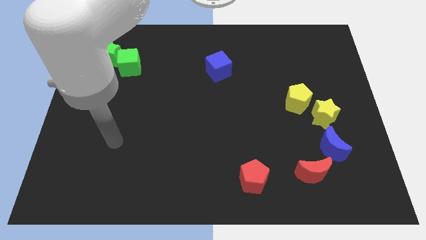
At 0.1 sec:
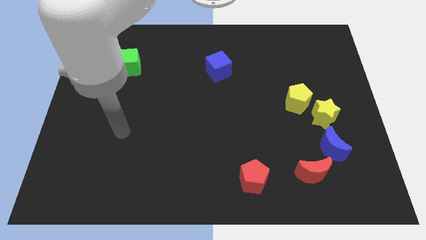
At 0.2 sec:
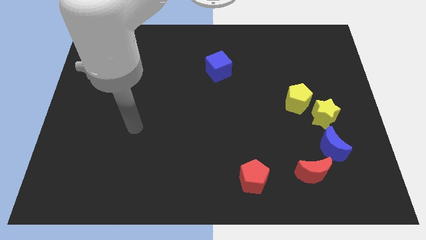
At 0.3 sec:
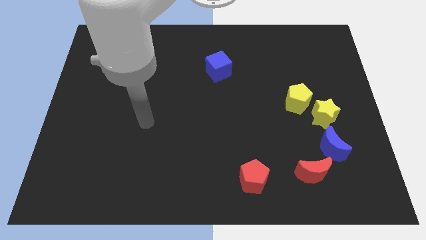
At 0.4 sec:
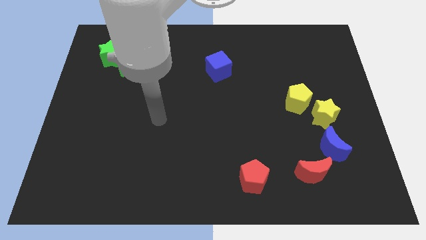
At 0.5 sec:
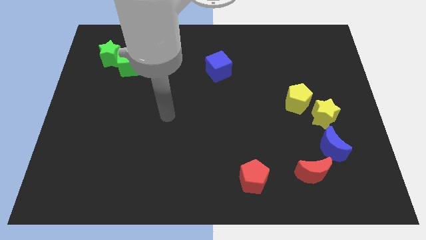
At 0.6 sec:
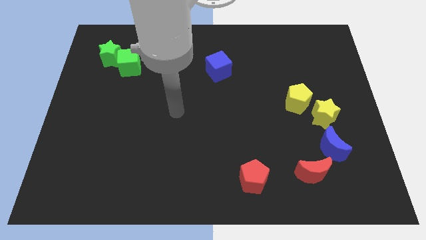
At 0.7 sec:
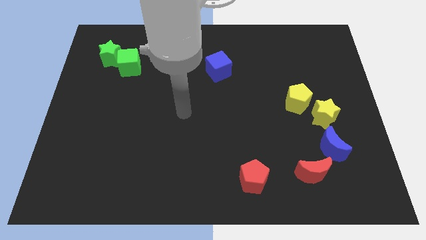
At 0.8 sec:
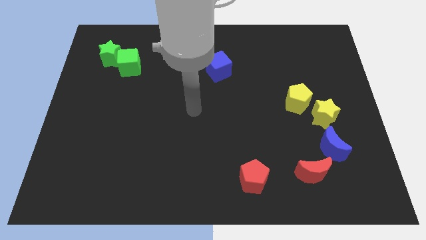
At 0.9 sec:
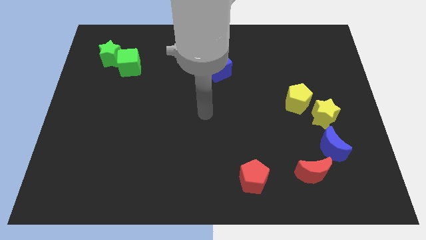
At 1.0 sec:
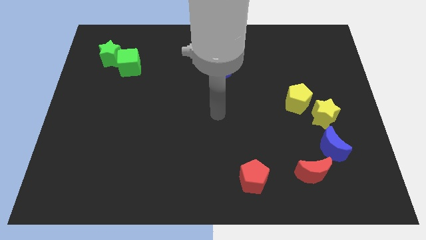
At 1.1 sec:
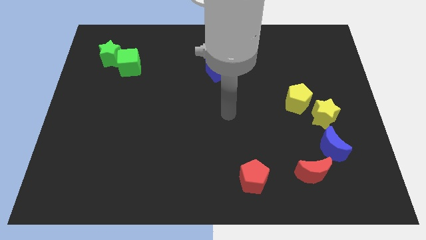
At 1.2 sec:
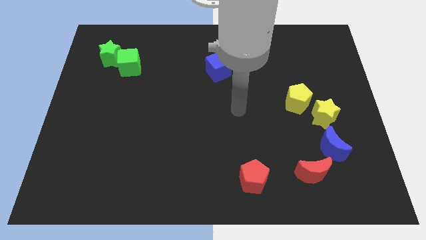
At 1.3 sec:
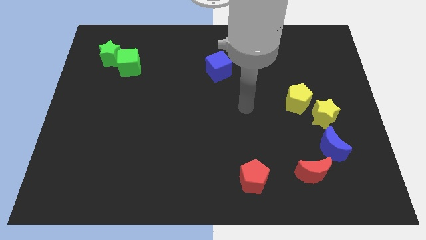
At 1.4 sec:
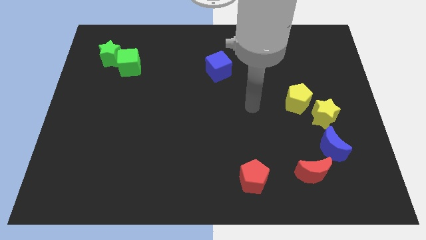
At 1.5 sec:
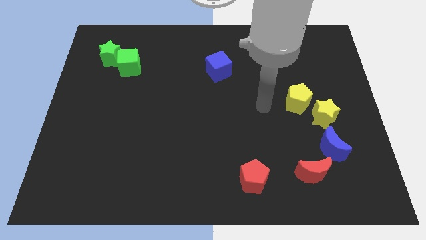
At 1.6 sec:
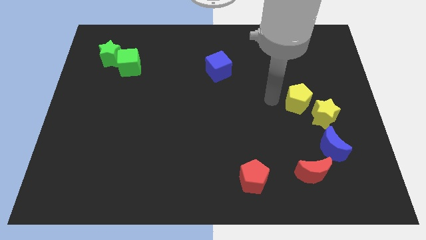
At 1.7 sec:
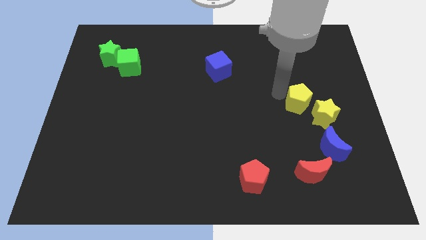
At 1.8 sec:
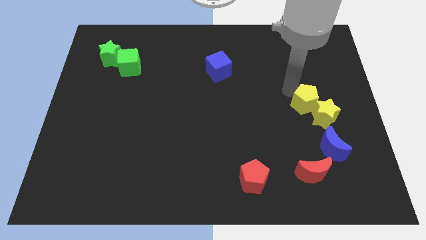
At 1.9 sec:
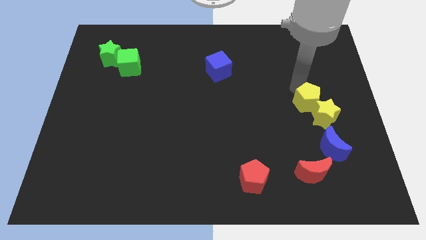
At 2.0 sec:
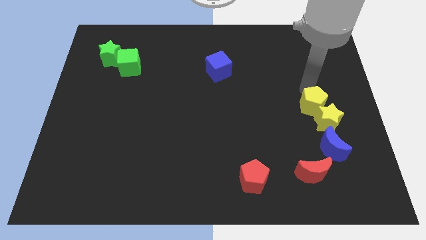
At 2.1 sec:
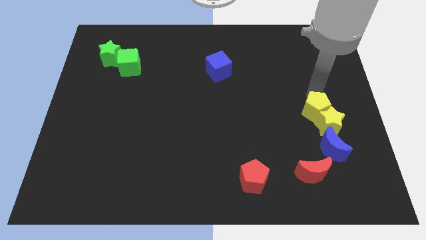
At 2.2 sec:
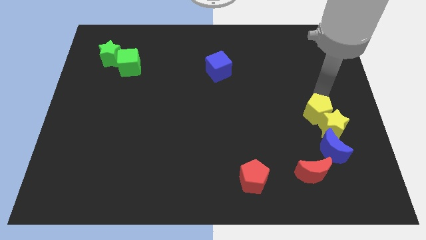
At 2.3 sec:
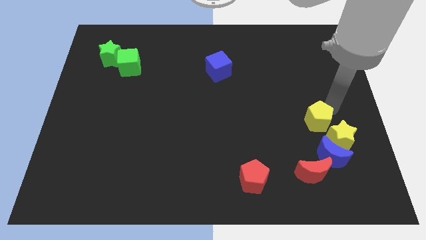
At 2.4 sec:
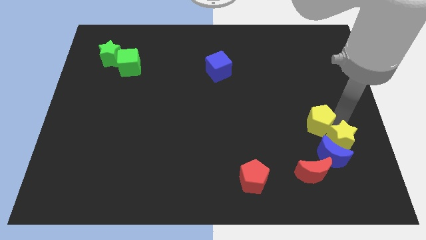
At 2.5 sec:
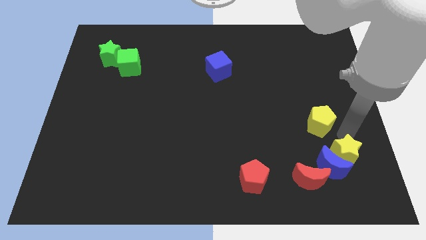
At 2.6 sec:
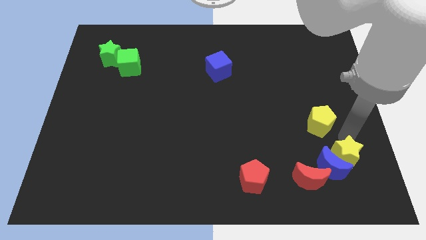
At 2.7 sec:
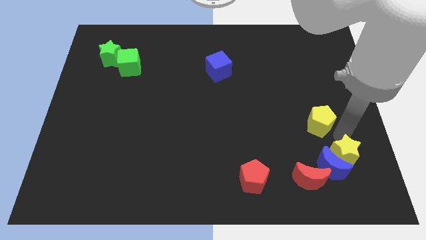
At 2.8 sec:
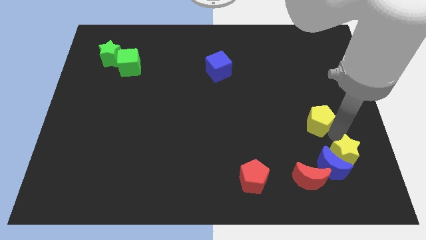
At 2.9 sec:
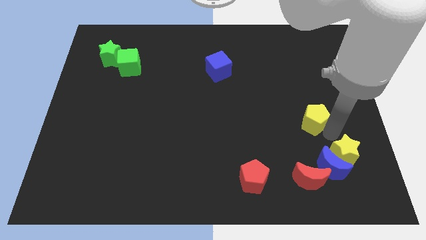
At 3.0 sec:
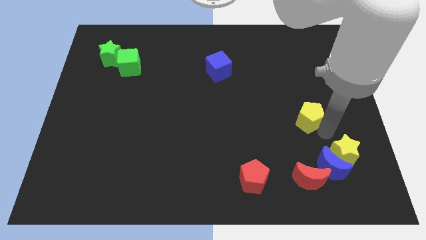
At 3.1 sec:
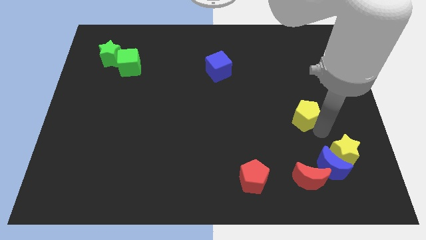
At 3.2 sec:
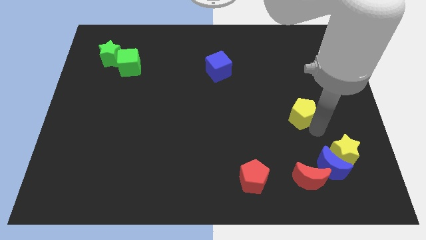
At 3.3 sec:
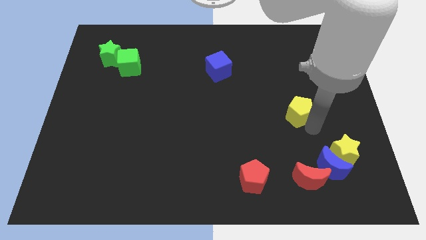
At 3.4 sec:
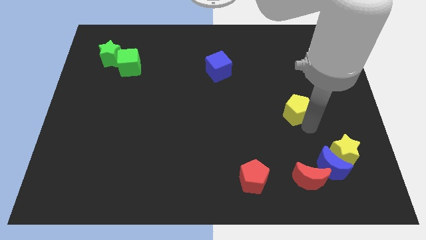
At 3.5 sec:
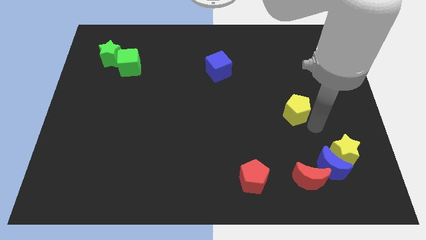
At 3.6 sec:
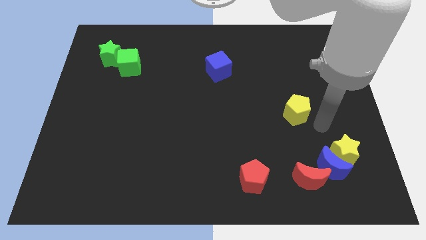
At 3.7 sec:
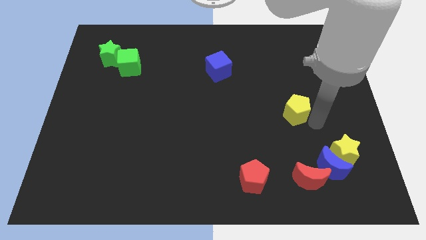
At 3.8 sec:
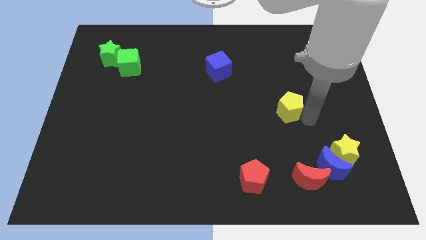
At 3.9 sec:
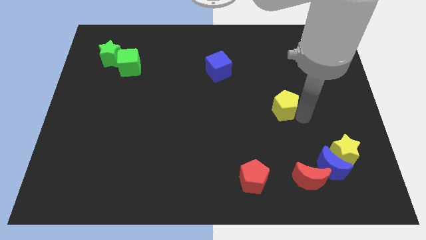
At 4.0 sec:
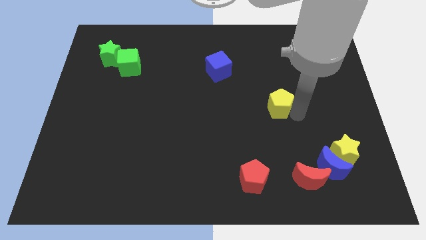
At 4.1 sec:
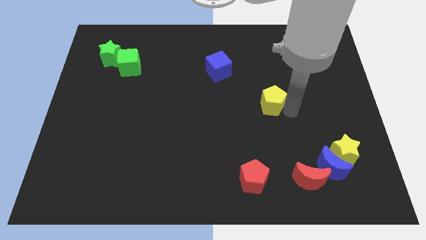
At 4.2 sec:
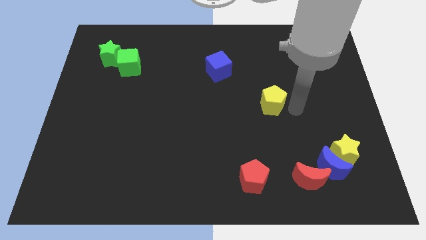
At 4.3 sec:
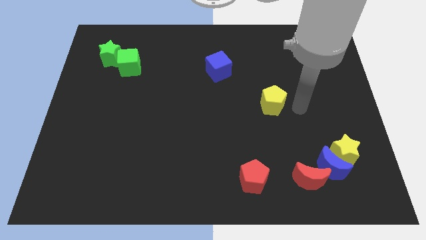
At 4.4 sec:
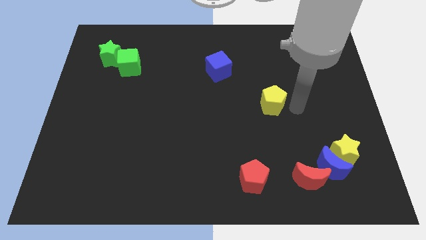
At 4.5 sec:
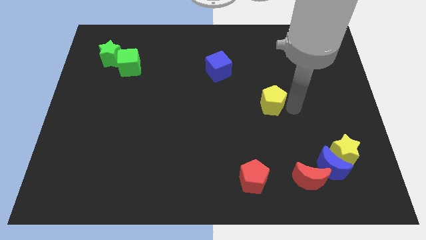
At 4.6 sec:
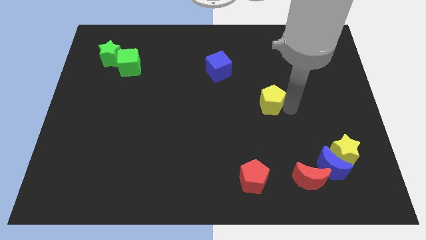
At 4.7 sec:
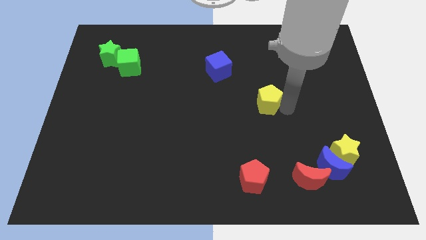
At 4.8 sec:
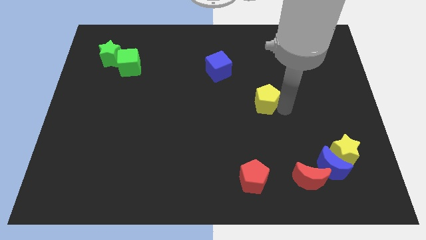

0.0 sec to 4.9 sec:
slide the yellow pentagon to the middle of the board

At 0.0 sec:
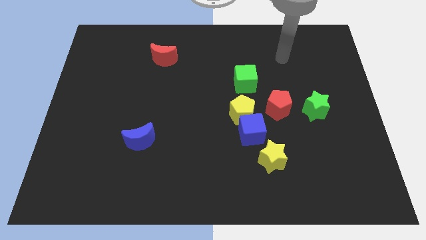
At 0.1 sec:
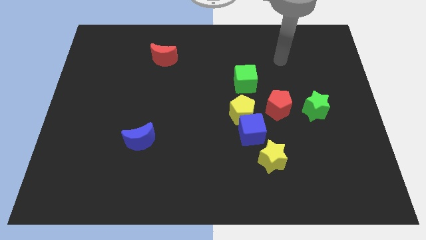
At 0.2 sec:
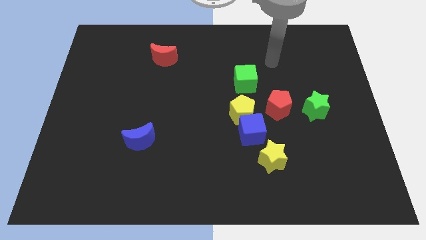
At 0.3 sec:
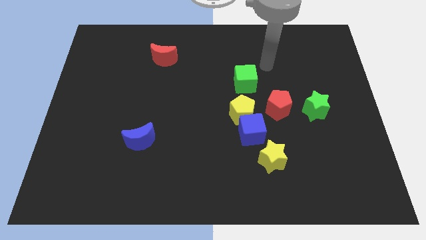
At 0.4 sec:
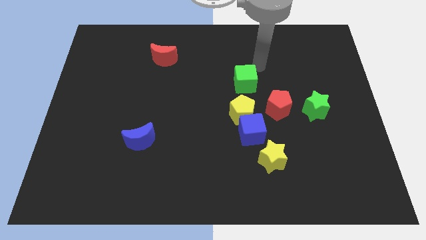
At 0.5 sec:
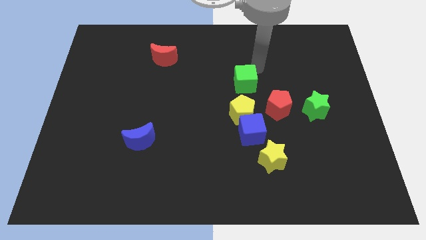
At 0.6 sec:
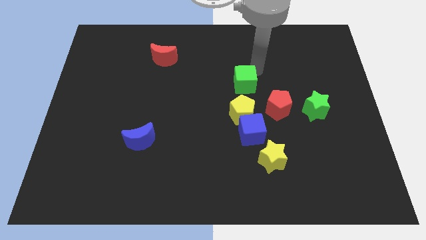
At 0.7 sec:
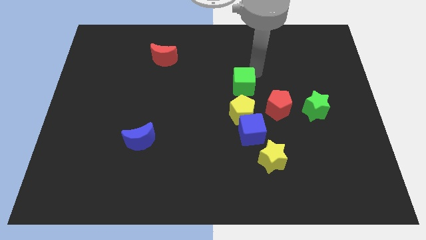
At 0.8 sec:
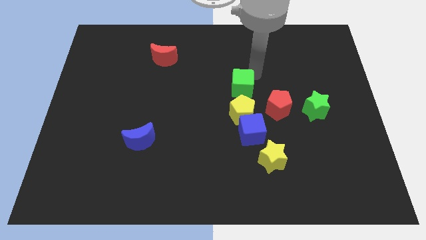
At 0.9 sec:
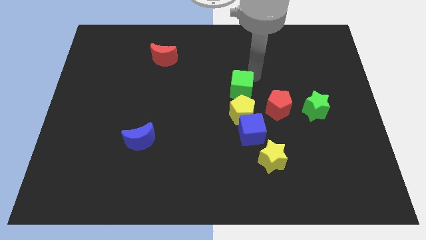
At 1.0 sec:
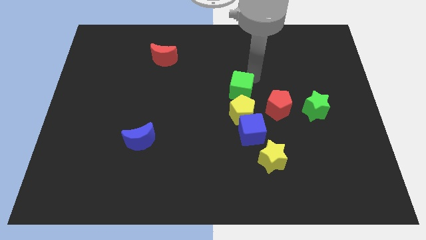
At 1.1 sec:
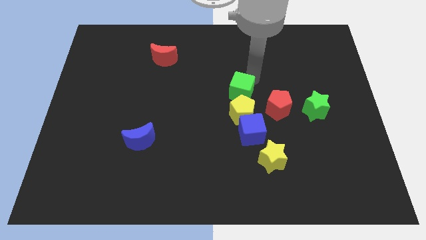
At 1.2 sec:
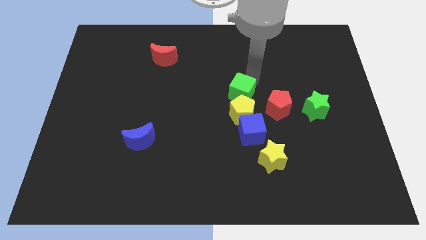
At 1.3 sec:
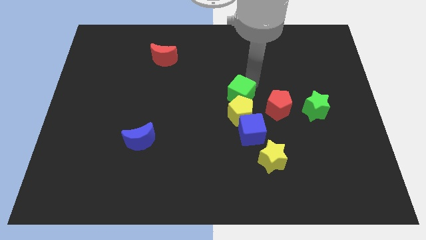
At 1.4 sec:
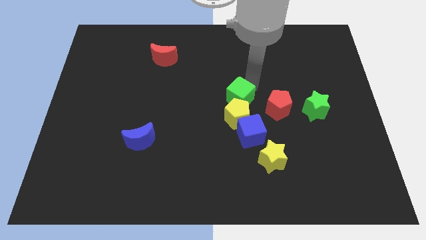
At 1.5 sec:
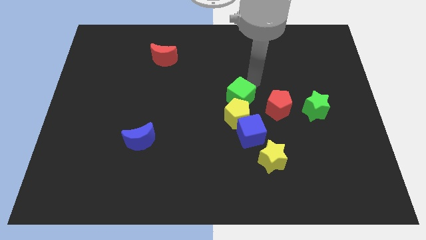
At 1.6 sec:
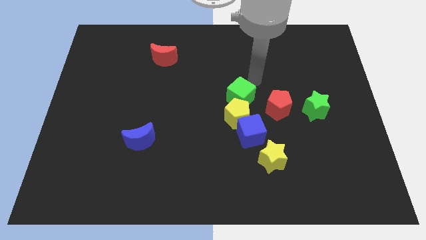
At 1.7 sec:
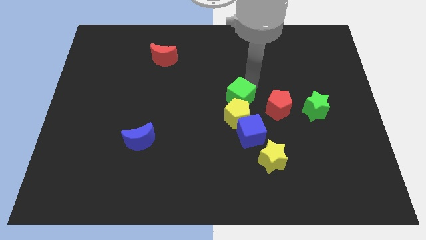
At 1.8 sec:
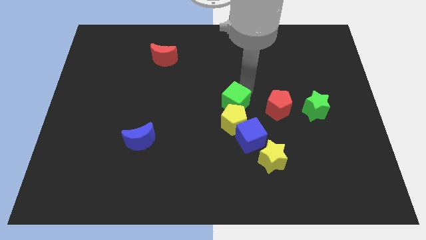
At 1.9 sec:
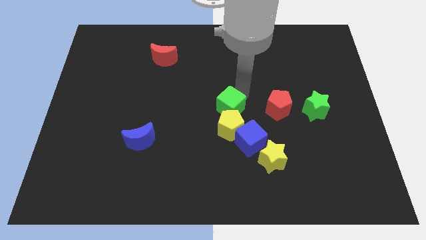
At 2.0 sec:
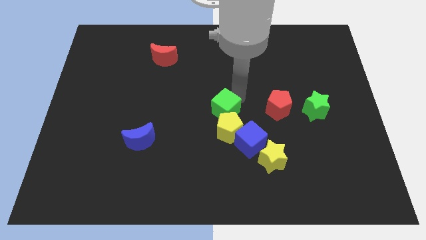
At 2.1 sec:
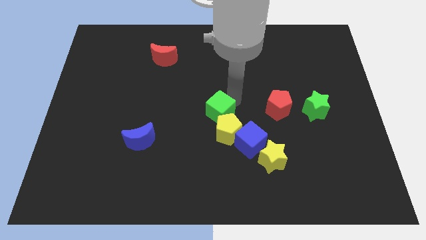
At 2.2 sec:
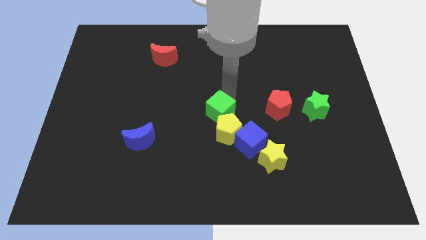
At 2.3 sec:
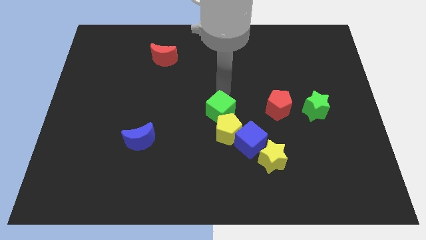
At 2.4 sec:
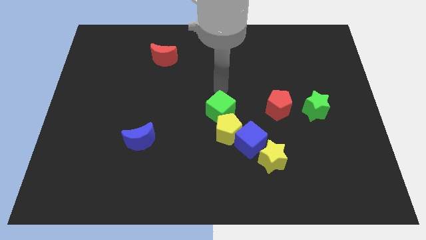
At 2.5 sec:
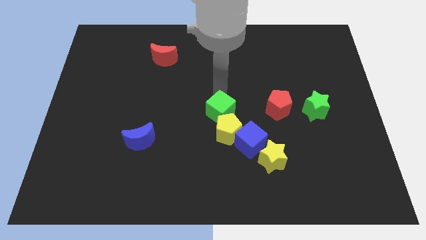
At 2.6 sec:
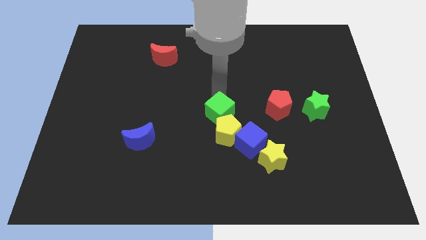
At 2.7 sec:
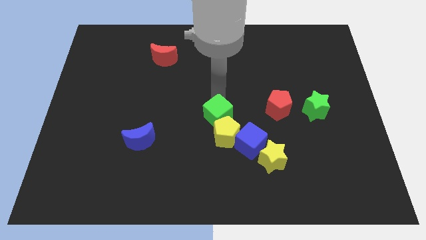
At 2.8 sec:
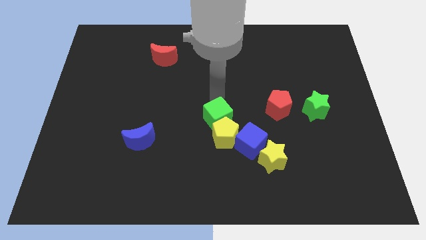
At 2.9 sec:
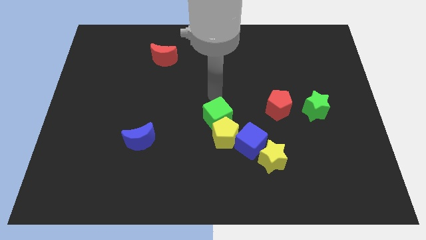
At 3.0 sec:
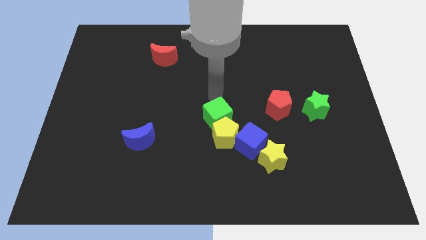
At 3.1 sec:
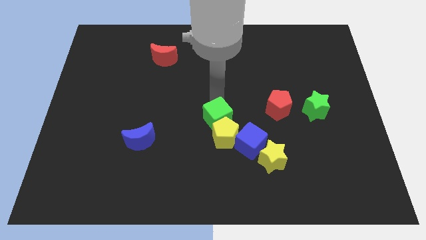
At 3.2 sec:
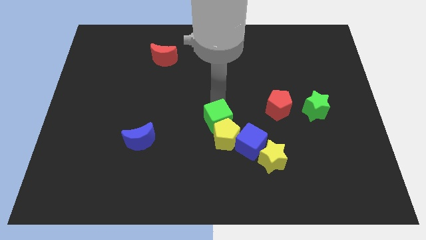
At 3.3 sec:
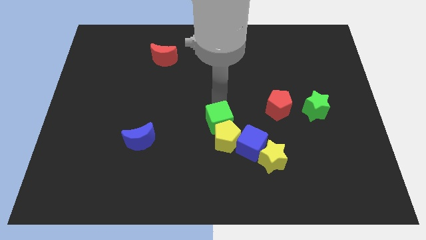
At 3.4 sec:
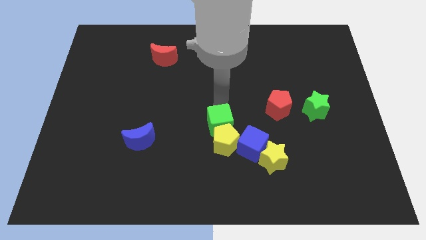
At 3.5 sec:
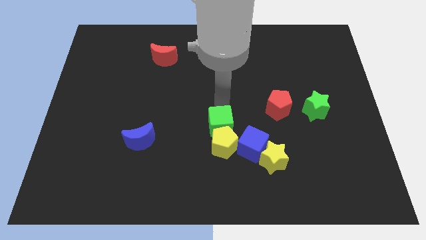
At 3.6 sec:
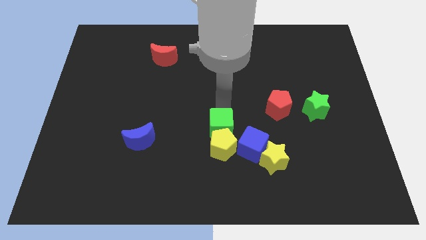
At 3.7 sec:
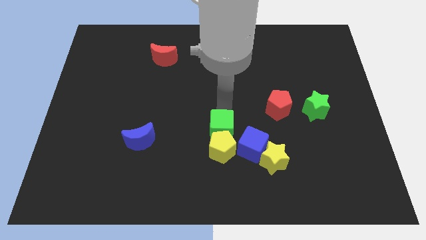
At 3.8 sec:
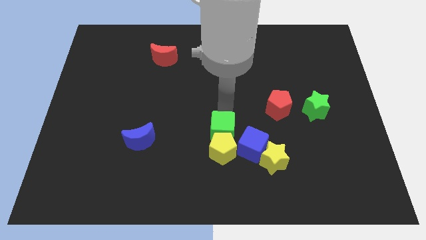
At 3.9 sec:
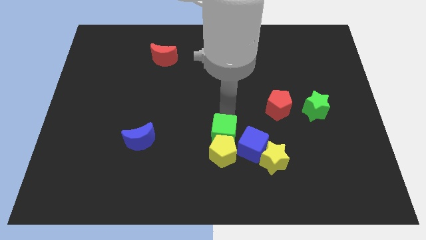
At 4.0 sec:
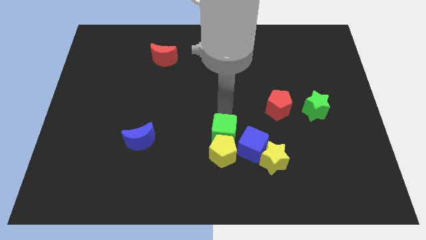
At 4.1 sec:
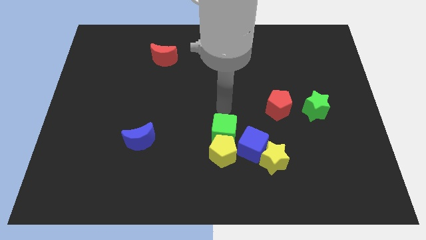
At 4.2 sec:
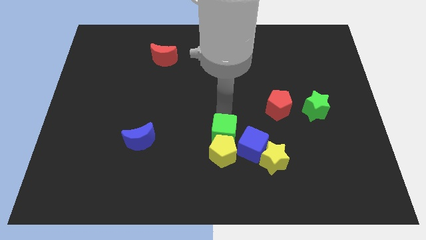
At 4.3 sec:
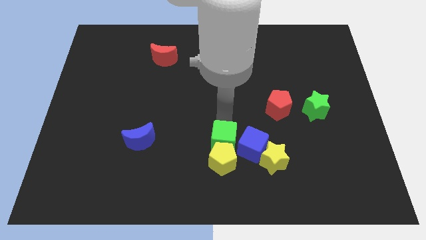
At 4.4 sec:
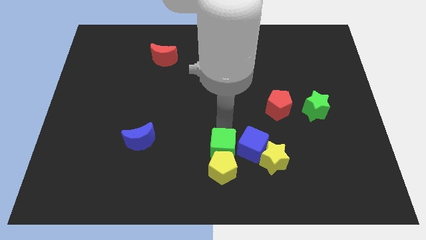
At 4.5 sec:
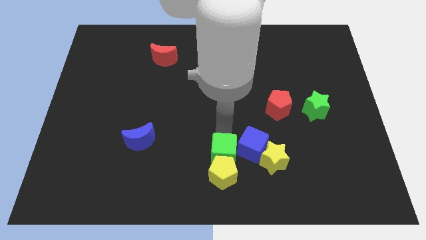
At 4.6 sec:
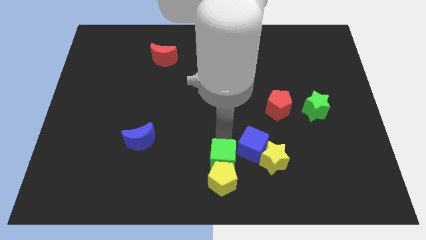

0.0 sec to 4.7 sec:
put the green cube to the bottom side
